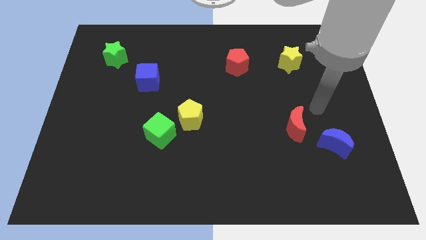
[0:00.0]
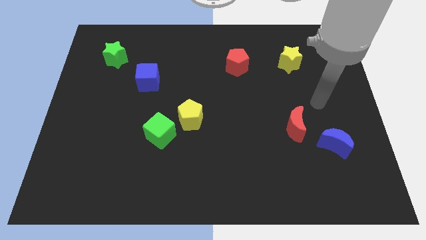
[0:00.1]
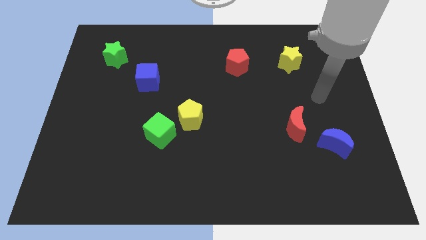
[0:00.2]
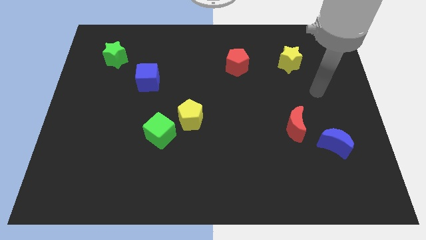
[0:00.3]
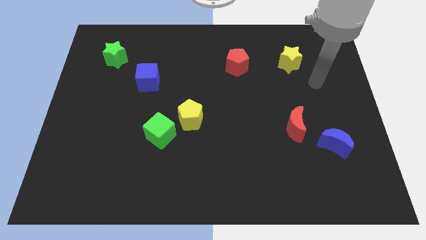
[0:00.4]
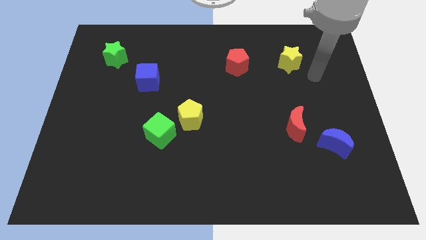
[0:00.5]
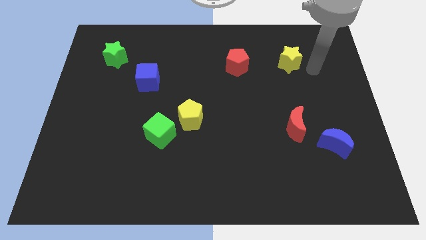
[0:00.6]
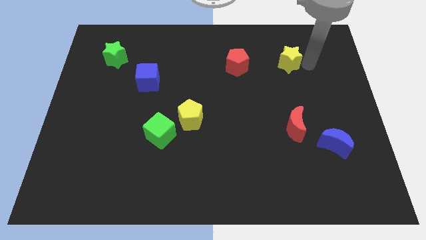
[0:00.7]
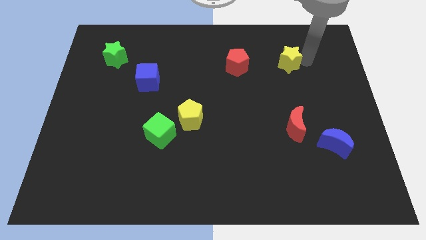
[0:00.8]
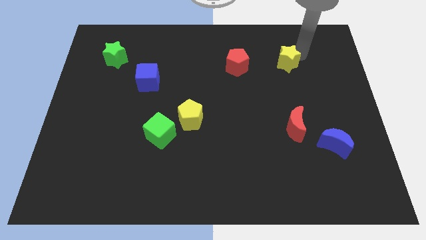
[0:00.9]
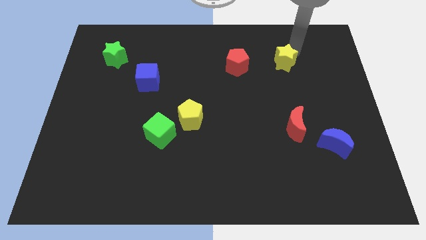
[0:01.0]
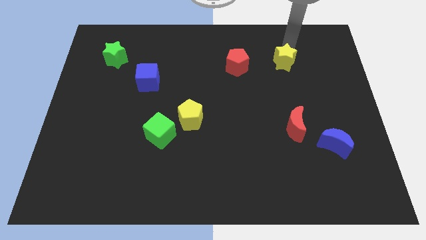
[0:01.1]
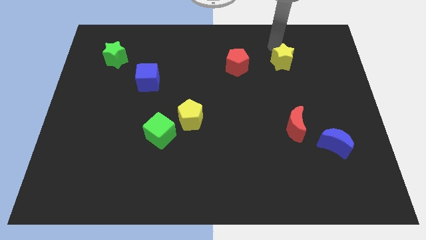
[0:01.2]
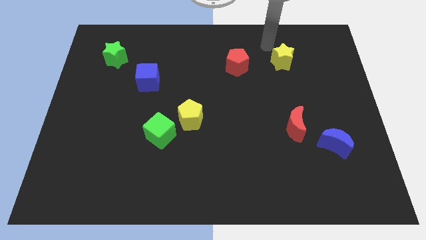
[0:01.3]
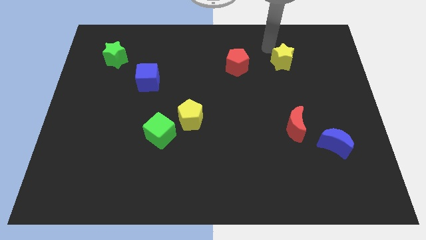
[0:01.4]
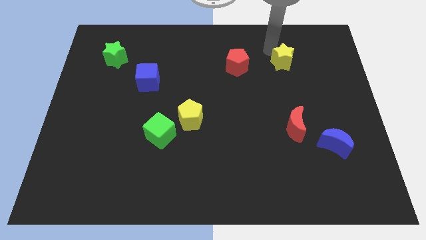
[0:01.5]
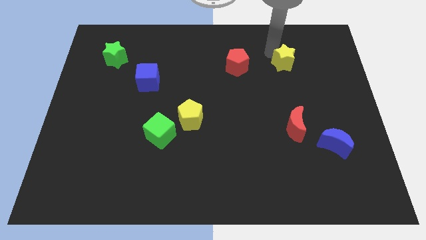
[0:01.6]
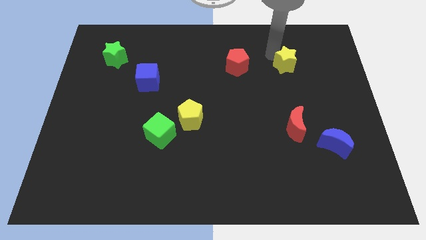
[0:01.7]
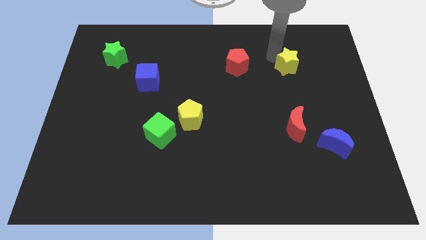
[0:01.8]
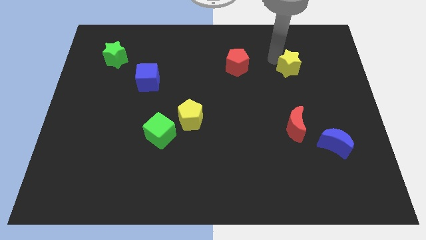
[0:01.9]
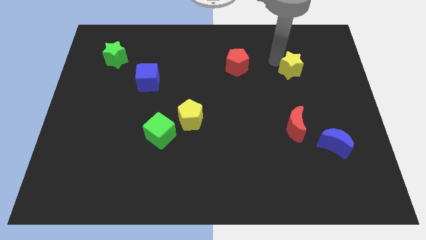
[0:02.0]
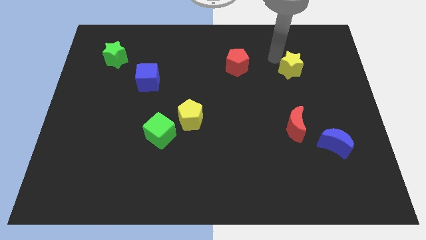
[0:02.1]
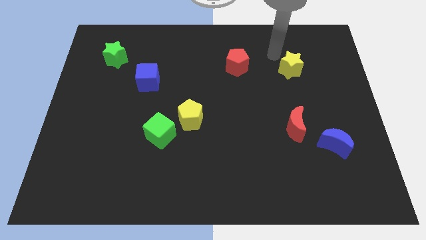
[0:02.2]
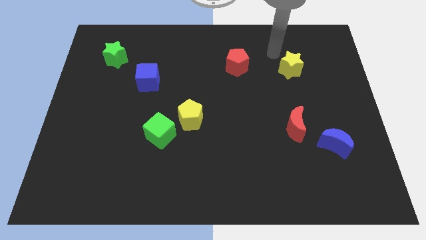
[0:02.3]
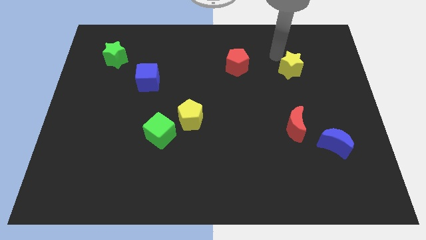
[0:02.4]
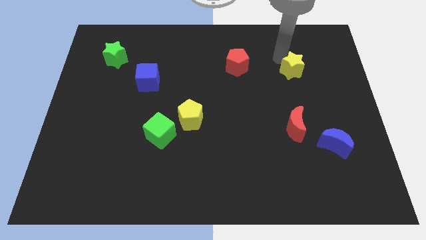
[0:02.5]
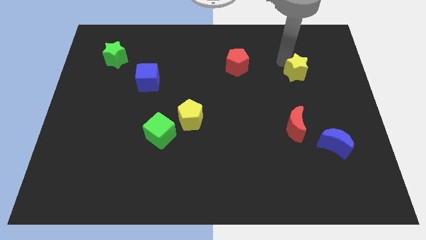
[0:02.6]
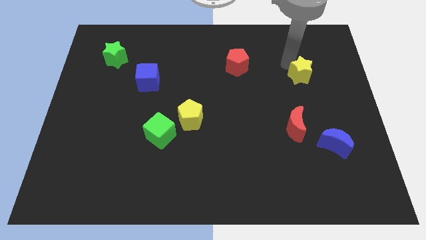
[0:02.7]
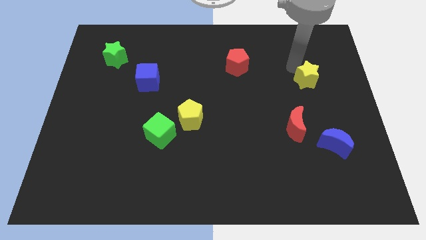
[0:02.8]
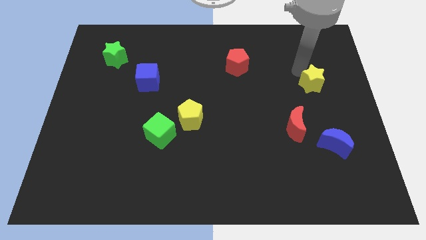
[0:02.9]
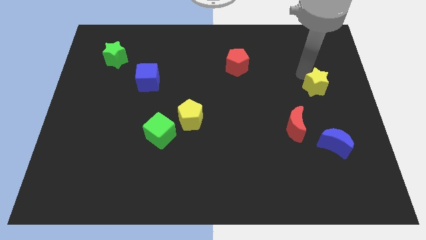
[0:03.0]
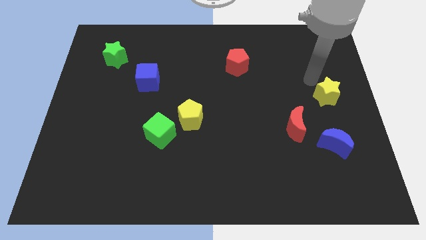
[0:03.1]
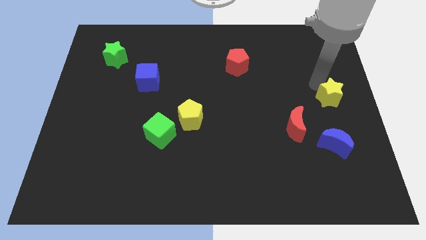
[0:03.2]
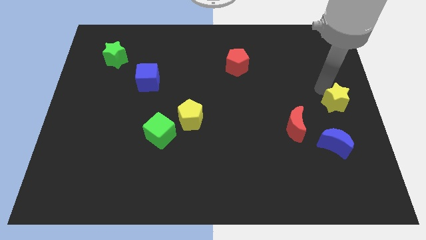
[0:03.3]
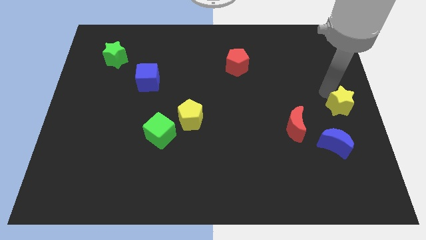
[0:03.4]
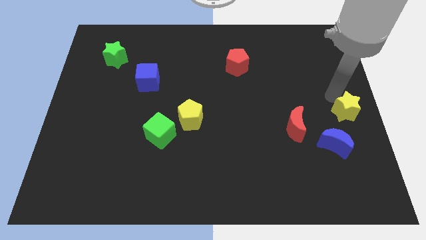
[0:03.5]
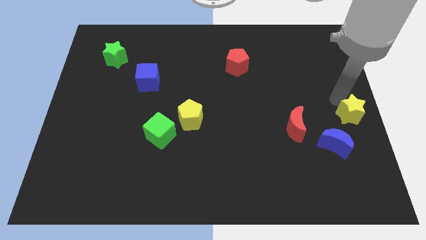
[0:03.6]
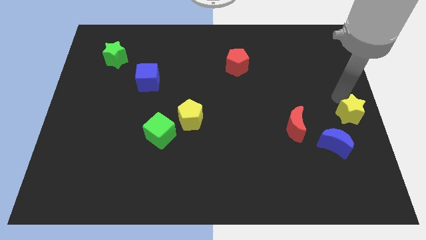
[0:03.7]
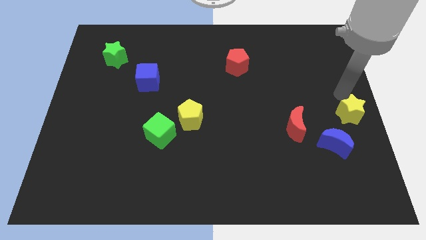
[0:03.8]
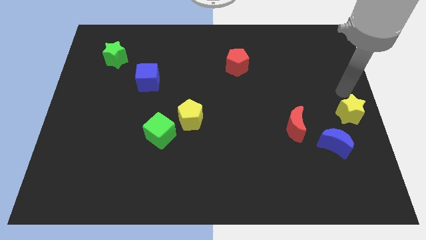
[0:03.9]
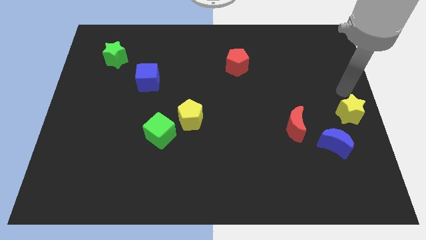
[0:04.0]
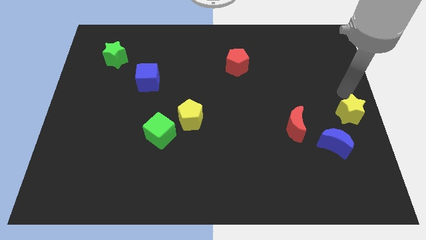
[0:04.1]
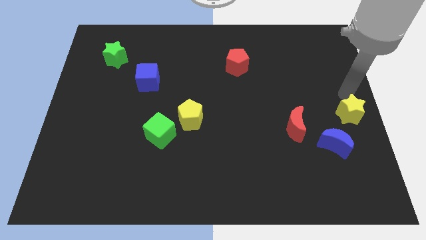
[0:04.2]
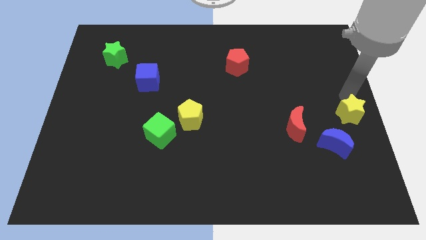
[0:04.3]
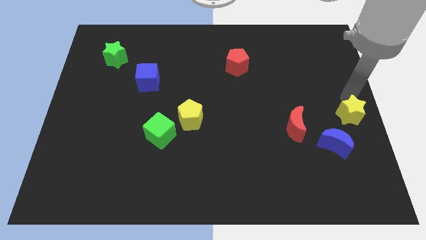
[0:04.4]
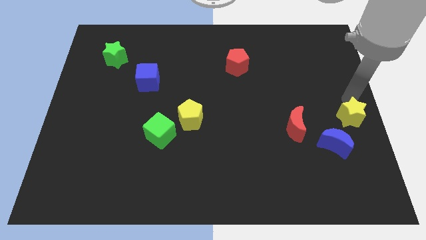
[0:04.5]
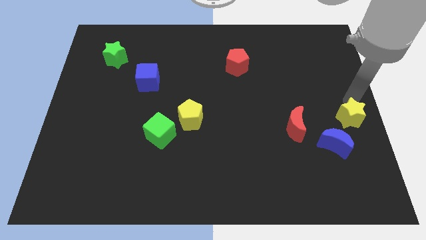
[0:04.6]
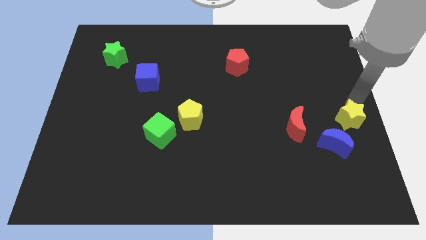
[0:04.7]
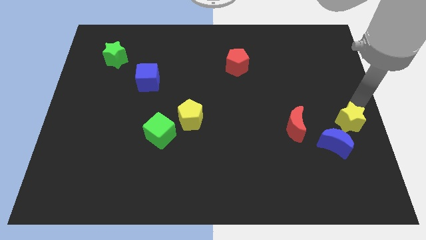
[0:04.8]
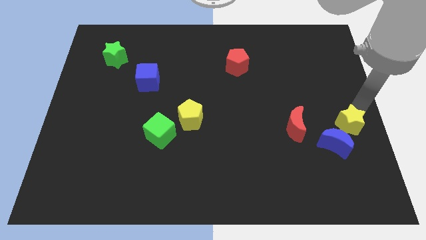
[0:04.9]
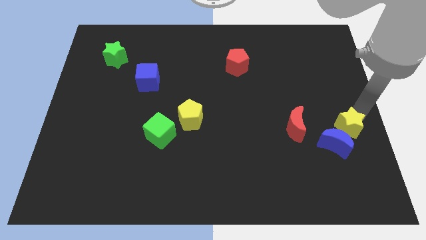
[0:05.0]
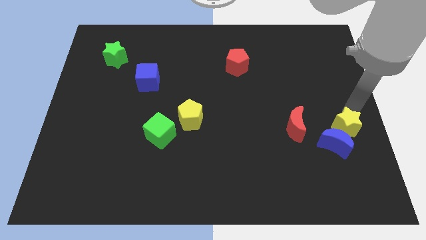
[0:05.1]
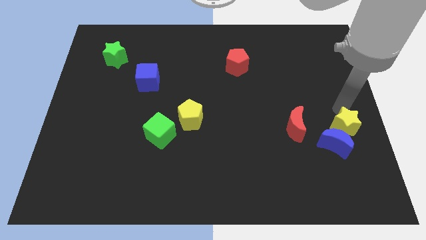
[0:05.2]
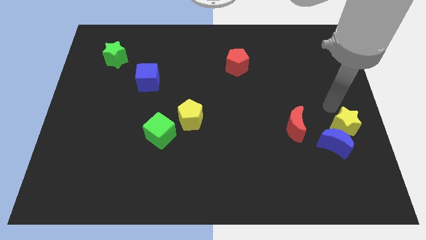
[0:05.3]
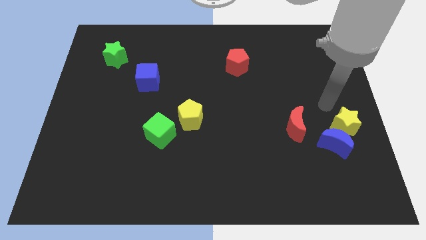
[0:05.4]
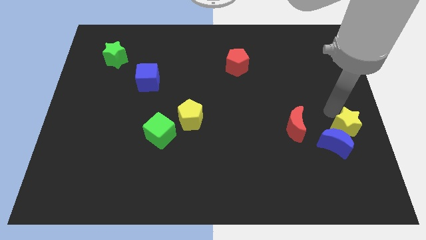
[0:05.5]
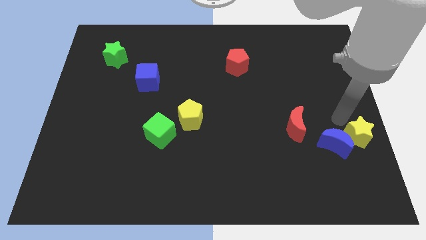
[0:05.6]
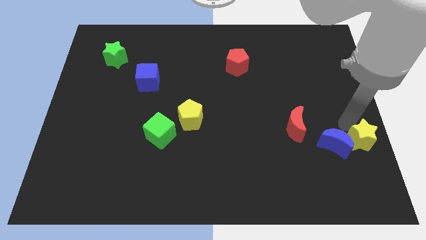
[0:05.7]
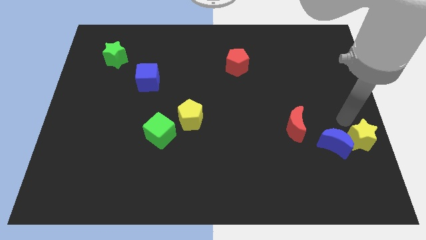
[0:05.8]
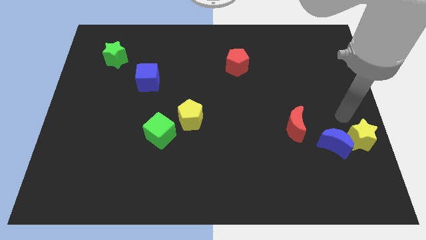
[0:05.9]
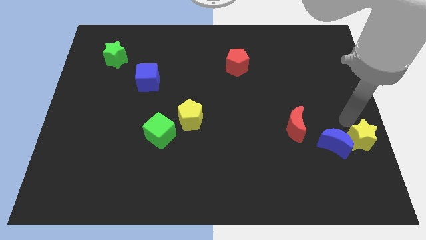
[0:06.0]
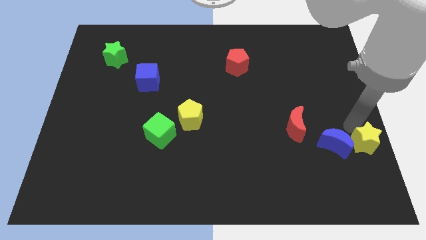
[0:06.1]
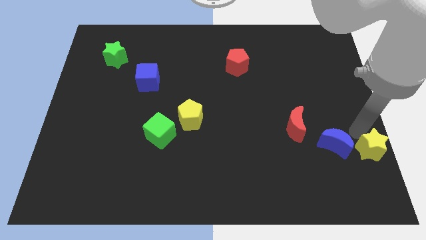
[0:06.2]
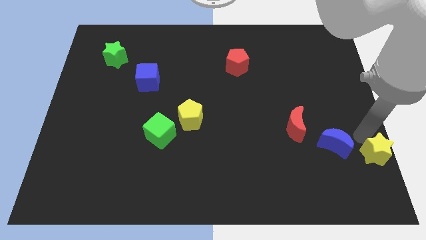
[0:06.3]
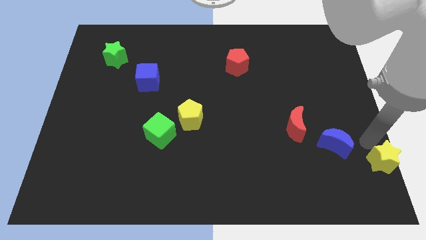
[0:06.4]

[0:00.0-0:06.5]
put the yellow star to the bottom right of the board

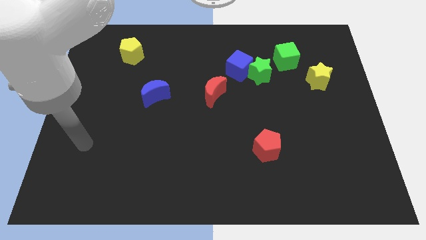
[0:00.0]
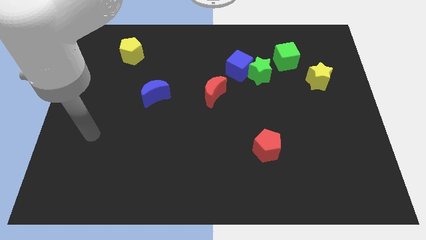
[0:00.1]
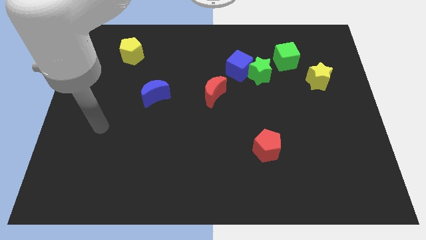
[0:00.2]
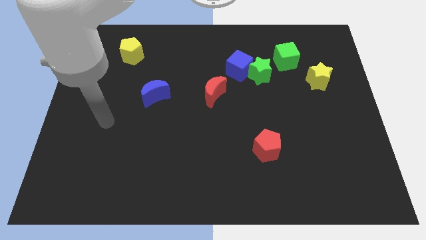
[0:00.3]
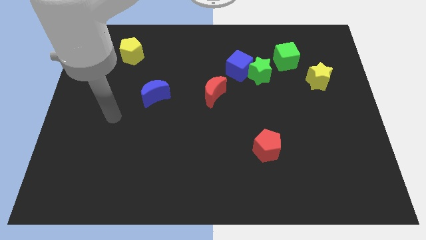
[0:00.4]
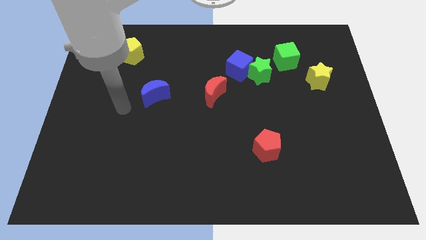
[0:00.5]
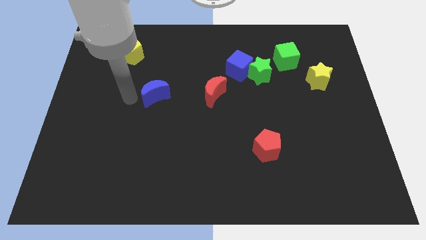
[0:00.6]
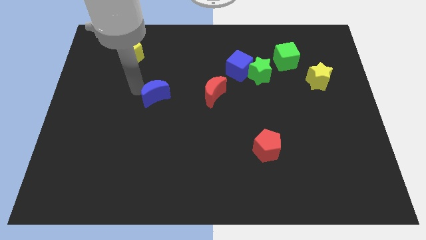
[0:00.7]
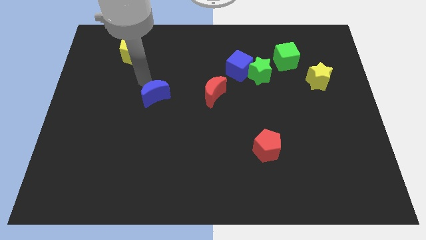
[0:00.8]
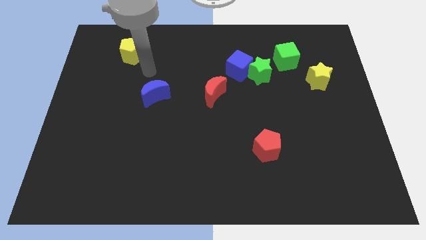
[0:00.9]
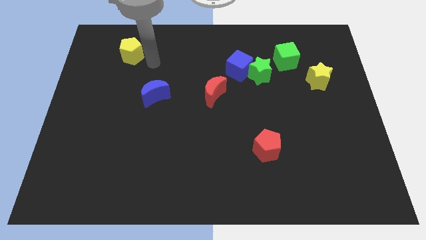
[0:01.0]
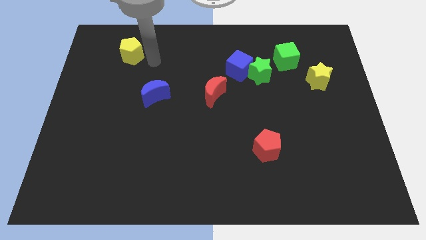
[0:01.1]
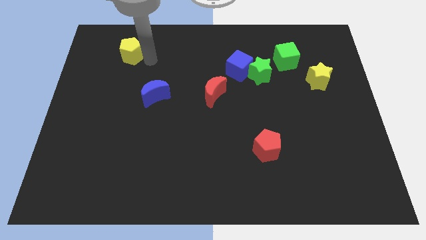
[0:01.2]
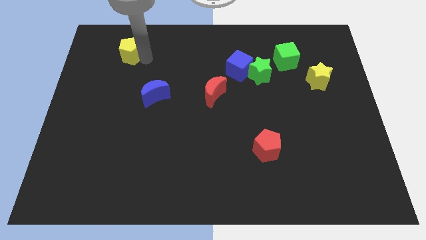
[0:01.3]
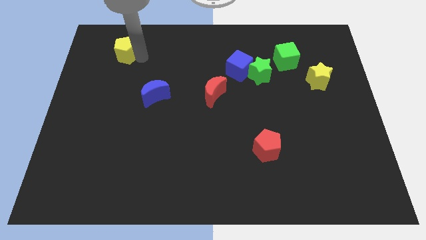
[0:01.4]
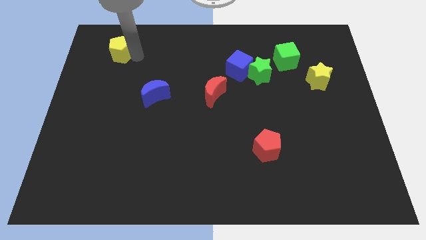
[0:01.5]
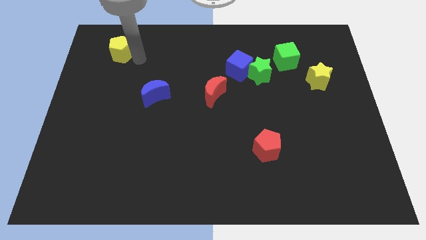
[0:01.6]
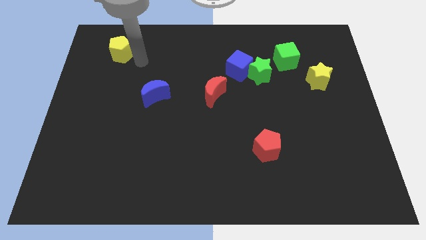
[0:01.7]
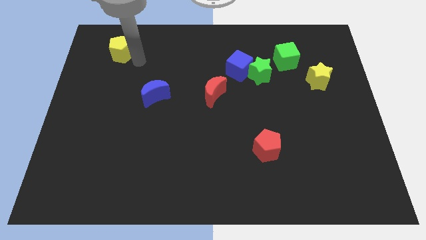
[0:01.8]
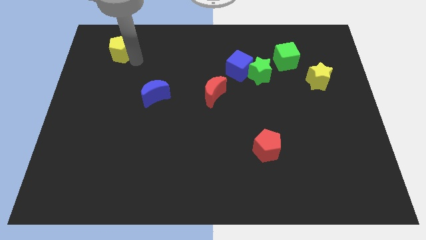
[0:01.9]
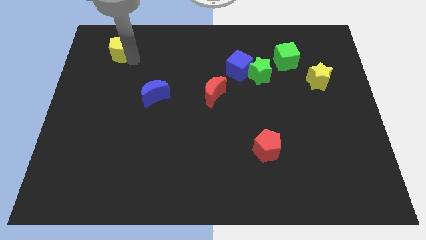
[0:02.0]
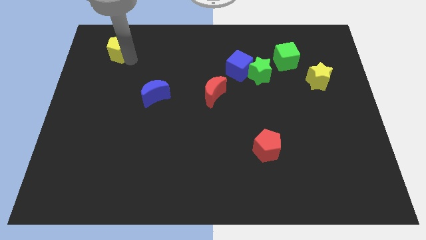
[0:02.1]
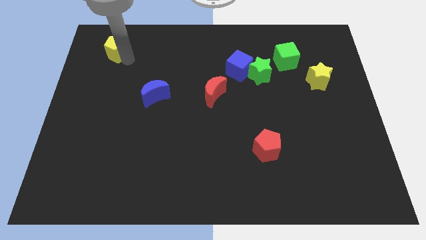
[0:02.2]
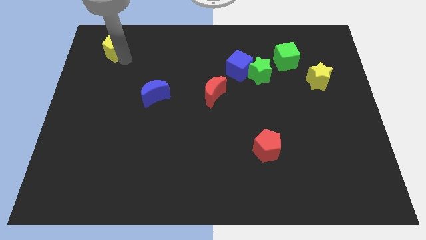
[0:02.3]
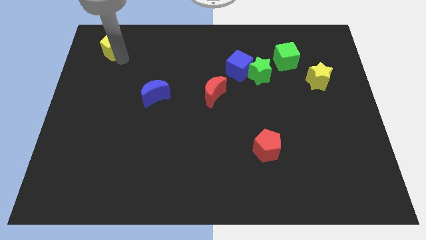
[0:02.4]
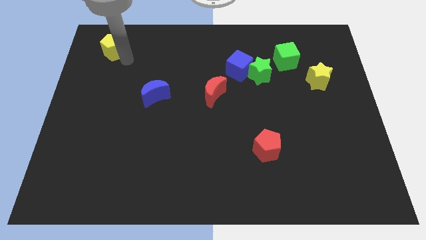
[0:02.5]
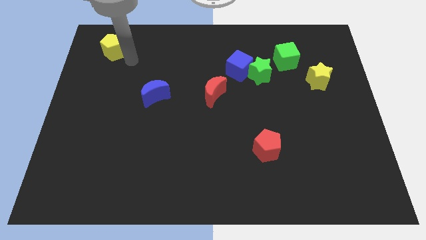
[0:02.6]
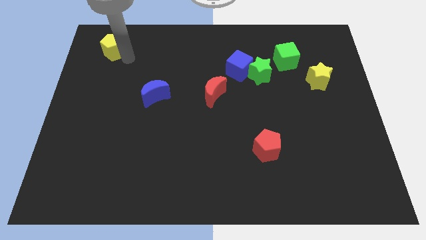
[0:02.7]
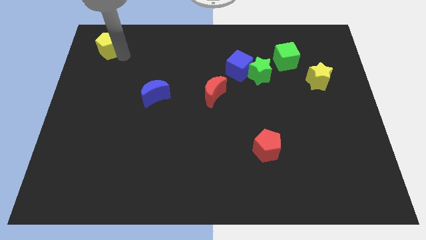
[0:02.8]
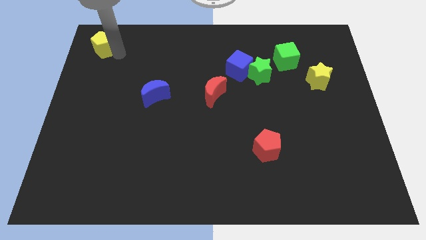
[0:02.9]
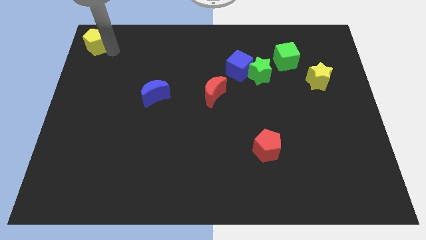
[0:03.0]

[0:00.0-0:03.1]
slide the yellow pentagon to the top left of the board
